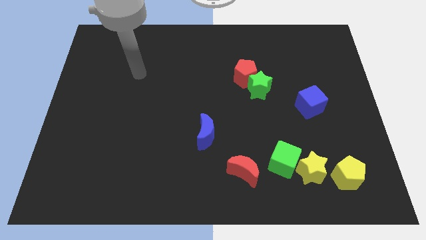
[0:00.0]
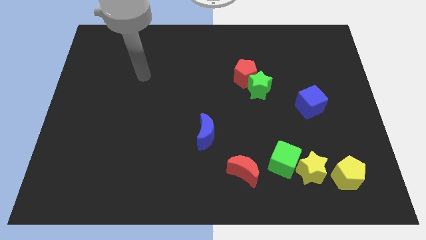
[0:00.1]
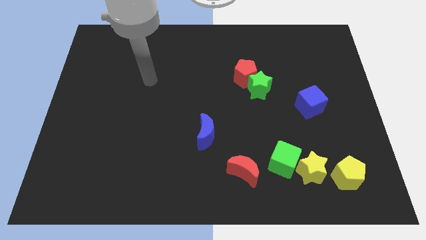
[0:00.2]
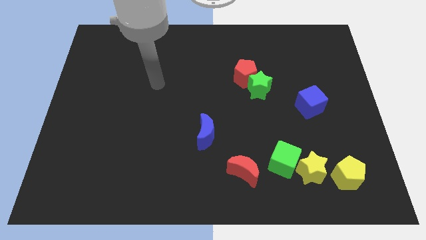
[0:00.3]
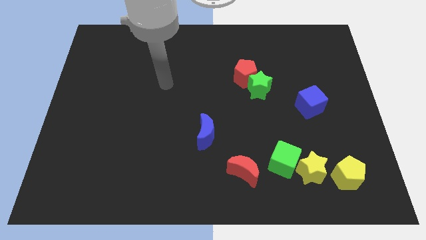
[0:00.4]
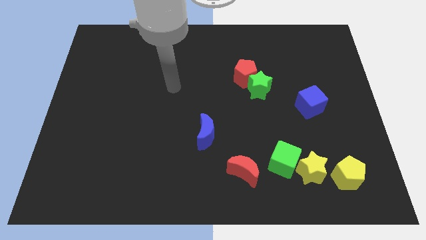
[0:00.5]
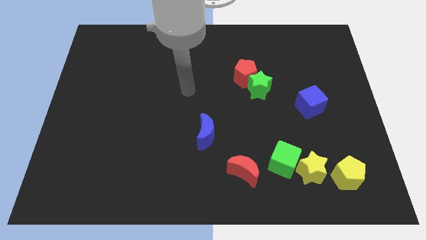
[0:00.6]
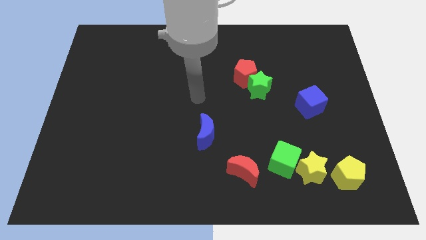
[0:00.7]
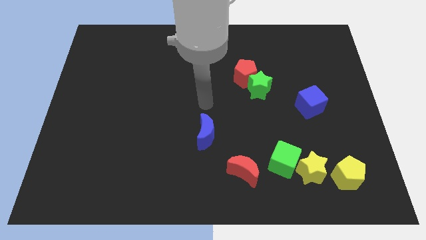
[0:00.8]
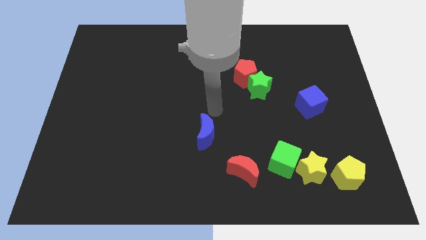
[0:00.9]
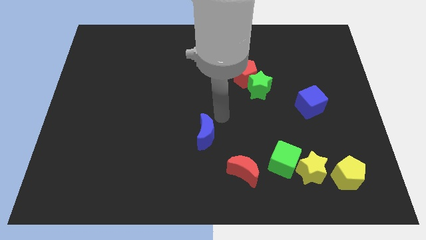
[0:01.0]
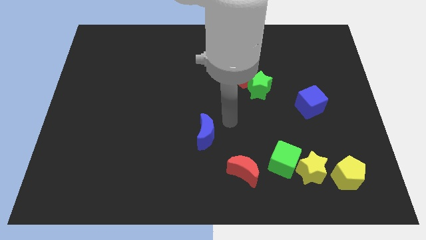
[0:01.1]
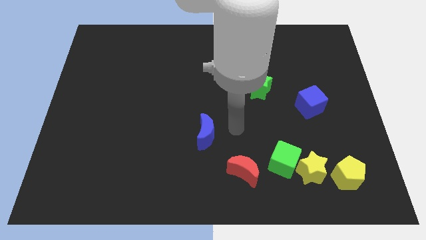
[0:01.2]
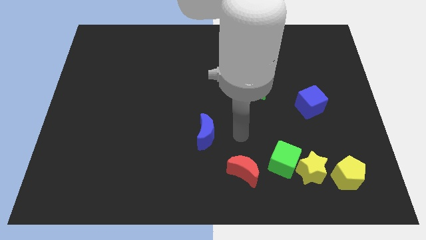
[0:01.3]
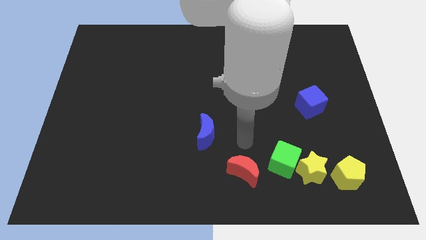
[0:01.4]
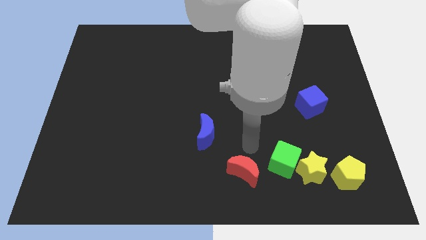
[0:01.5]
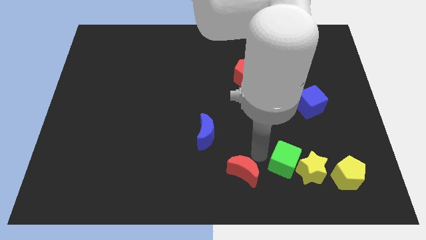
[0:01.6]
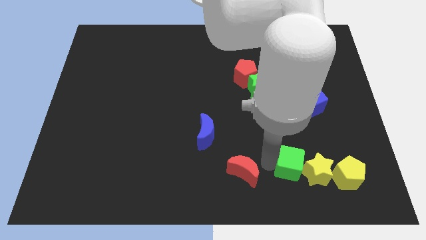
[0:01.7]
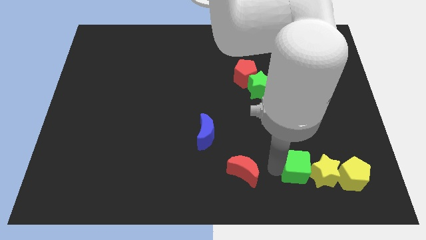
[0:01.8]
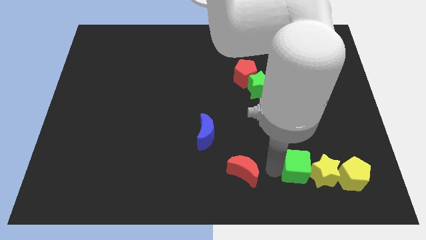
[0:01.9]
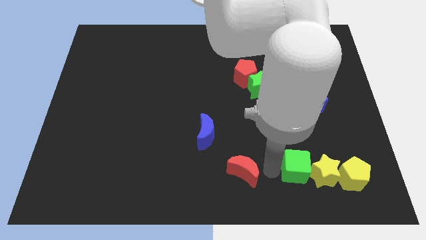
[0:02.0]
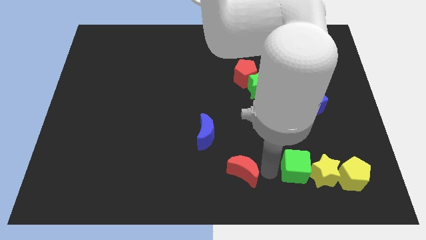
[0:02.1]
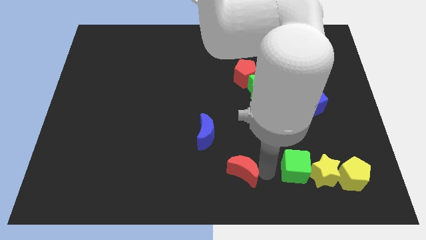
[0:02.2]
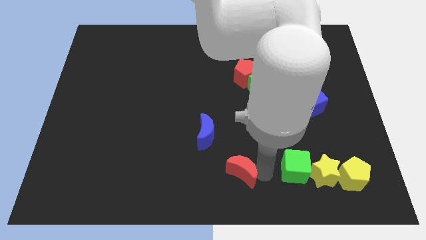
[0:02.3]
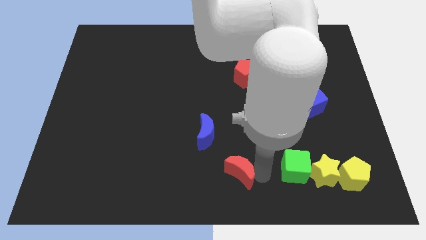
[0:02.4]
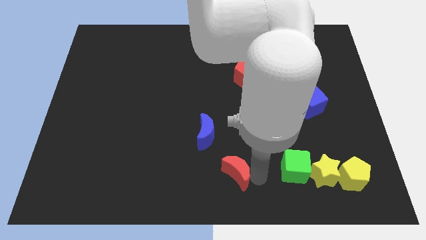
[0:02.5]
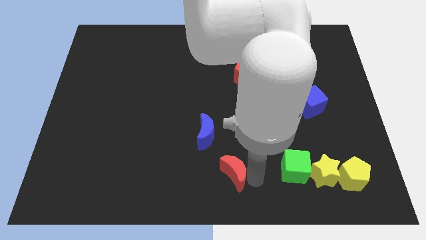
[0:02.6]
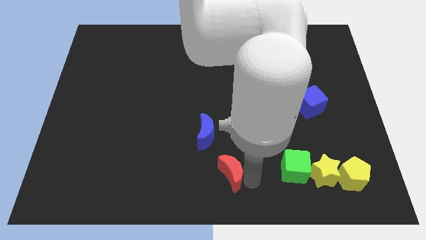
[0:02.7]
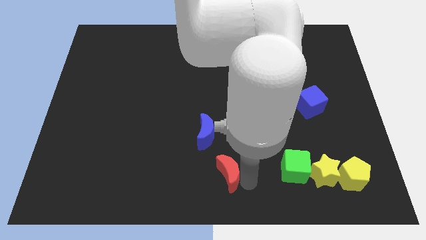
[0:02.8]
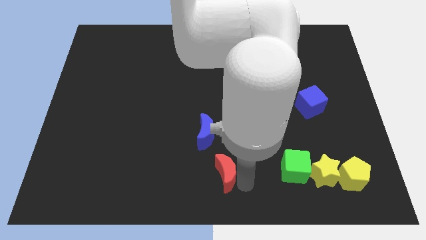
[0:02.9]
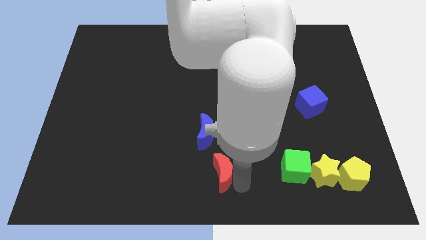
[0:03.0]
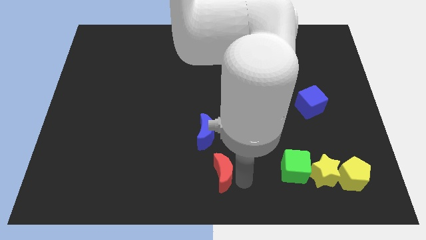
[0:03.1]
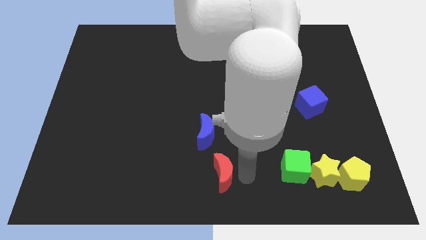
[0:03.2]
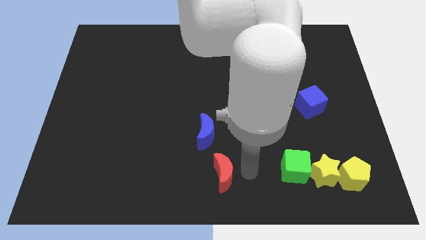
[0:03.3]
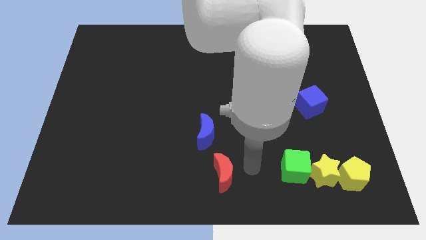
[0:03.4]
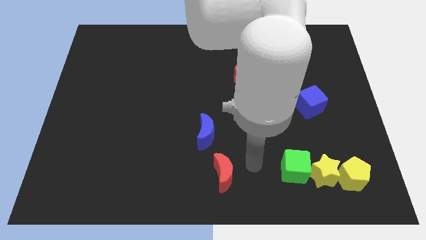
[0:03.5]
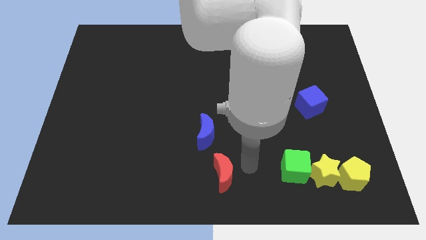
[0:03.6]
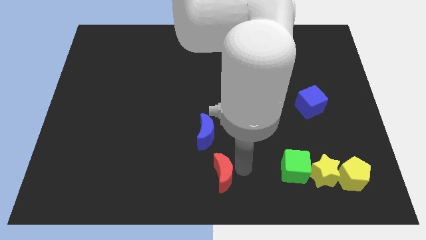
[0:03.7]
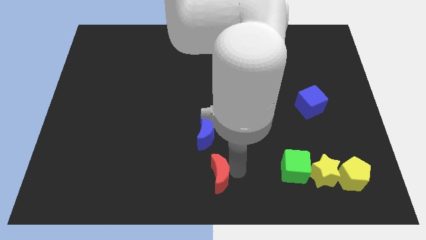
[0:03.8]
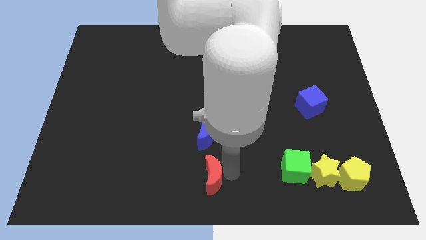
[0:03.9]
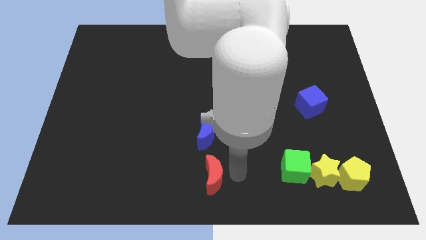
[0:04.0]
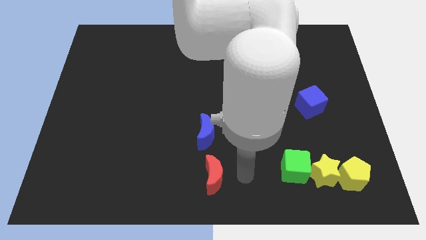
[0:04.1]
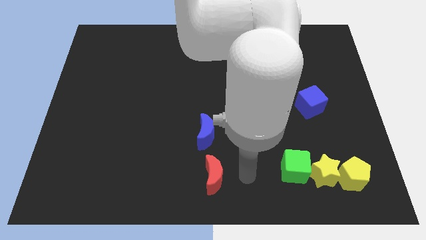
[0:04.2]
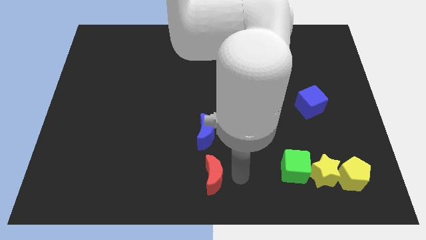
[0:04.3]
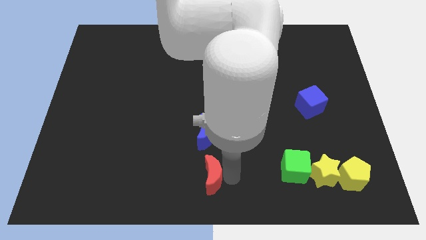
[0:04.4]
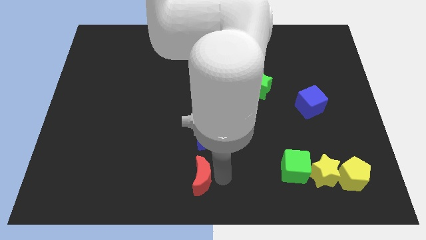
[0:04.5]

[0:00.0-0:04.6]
move the red moon to the left a bit

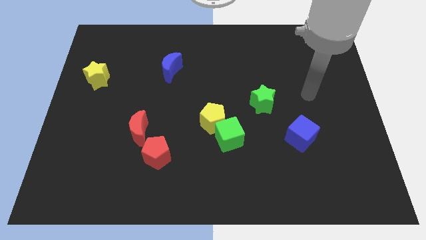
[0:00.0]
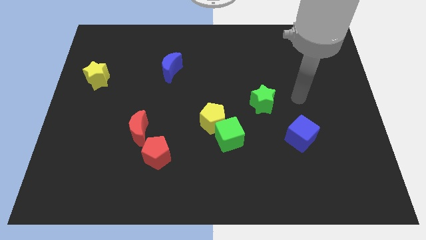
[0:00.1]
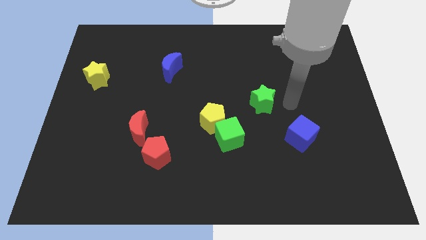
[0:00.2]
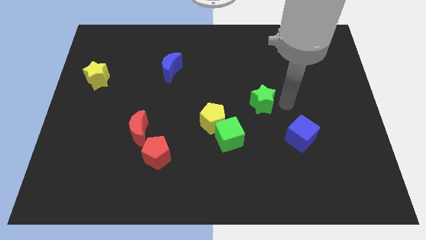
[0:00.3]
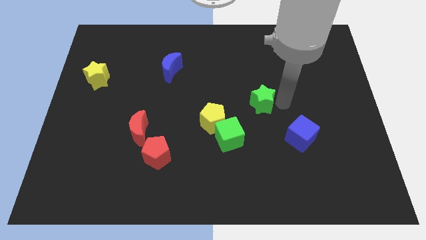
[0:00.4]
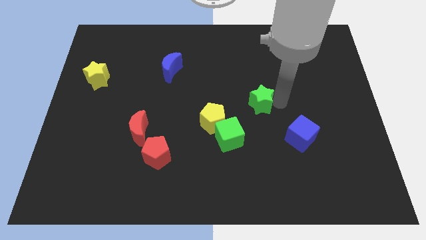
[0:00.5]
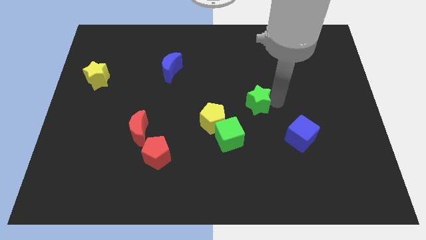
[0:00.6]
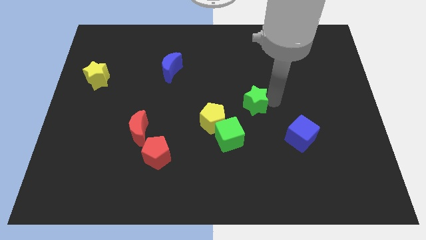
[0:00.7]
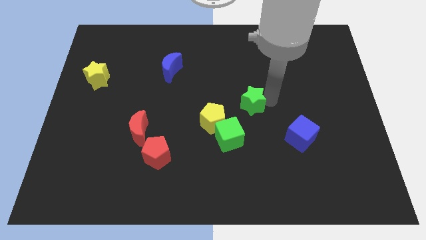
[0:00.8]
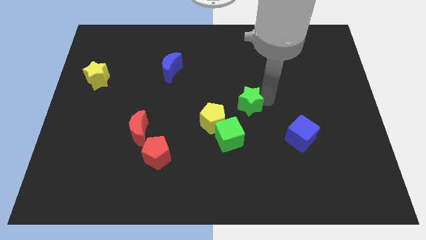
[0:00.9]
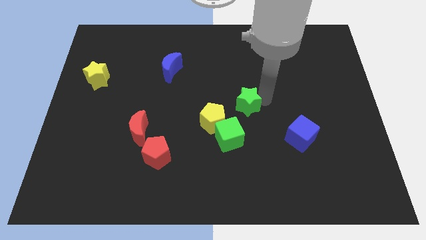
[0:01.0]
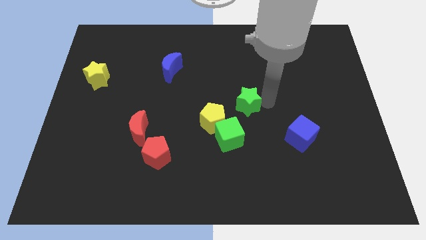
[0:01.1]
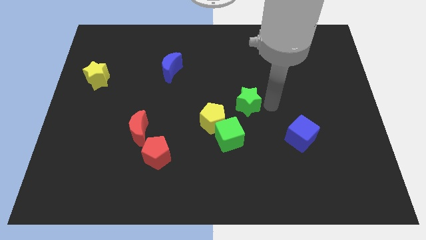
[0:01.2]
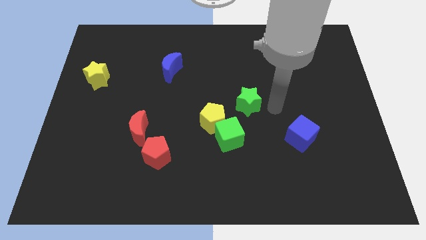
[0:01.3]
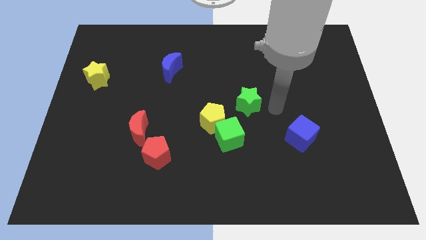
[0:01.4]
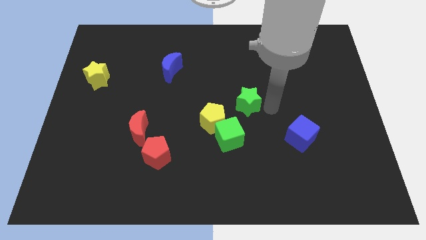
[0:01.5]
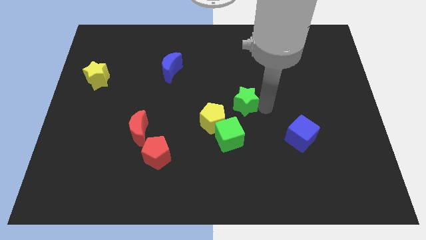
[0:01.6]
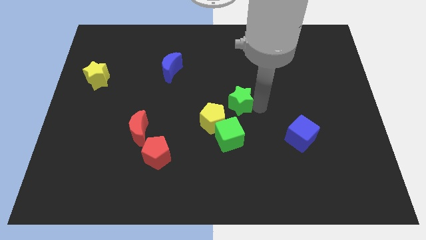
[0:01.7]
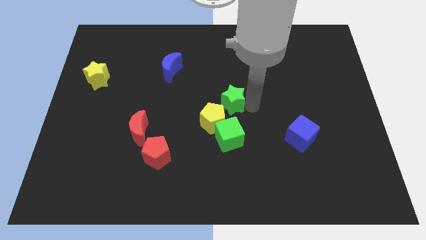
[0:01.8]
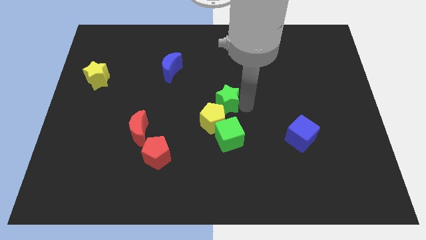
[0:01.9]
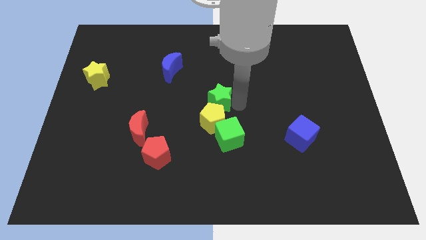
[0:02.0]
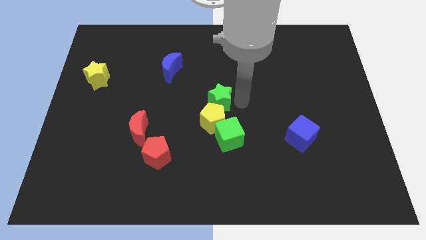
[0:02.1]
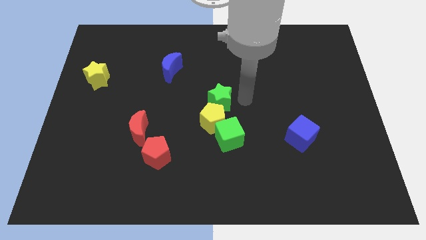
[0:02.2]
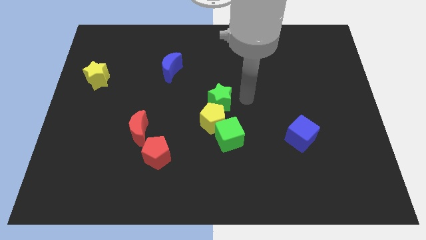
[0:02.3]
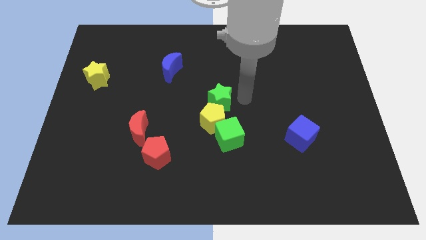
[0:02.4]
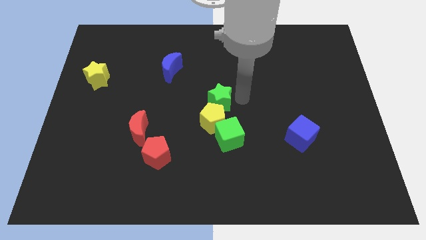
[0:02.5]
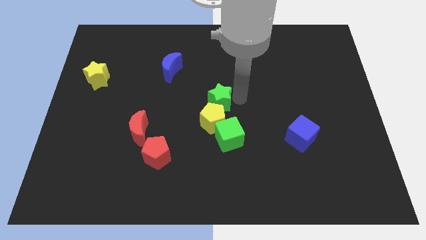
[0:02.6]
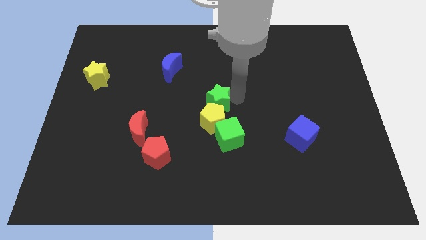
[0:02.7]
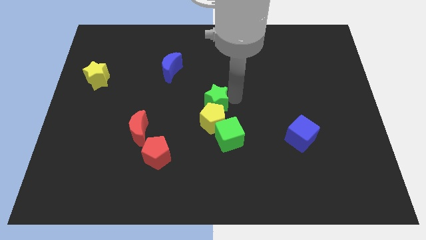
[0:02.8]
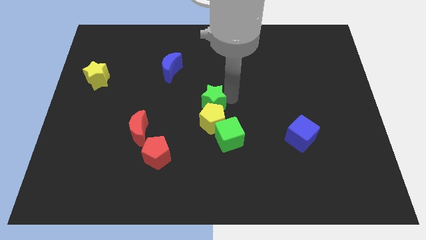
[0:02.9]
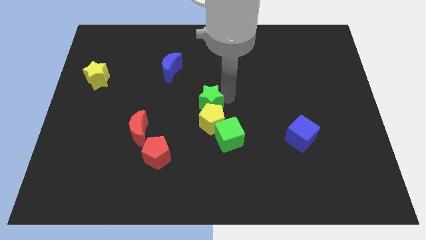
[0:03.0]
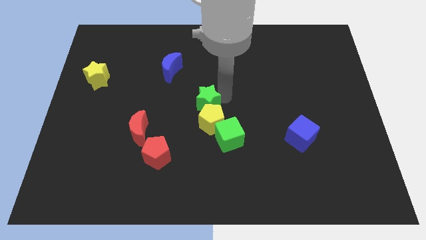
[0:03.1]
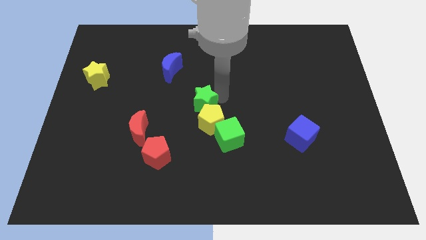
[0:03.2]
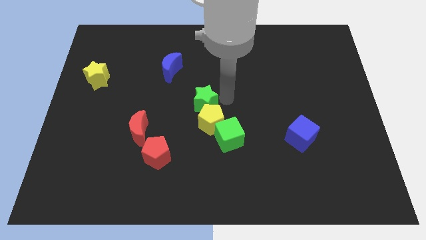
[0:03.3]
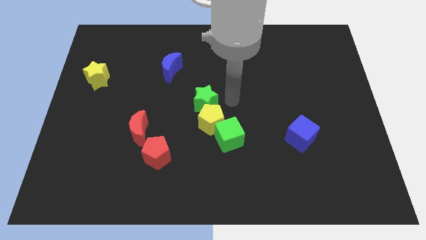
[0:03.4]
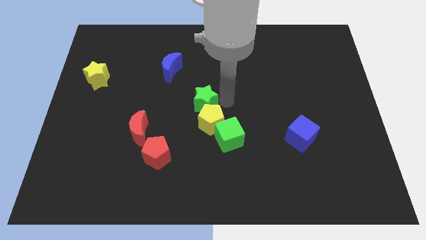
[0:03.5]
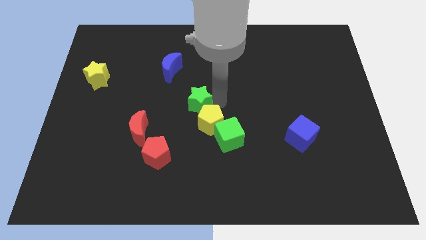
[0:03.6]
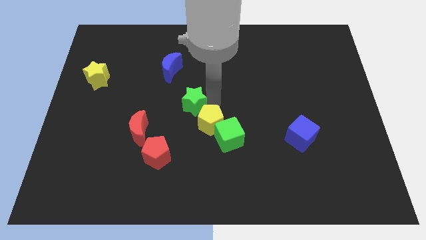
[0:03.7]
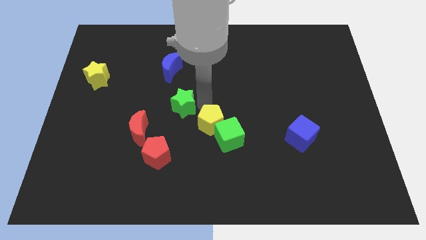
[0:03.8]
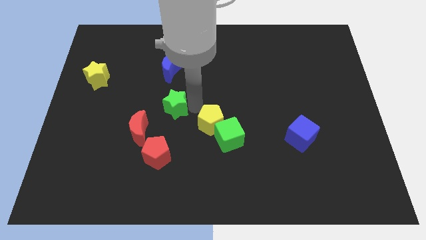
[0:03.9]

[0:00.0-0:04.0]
push the green star to the left
